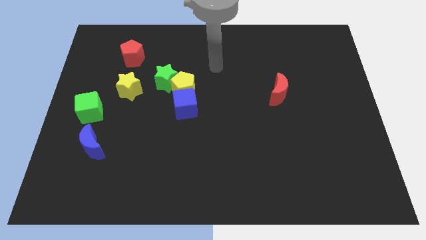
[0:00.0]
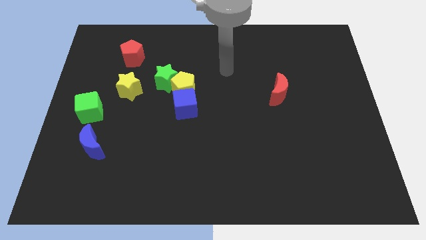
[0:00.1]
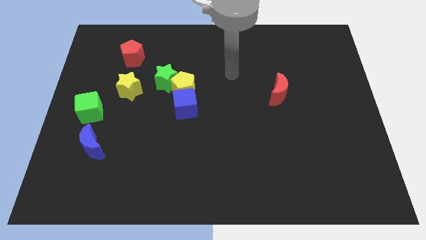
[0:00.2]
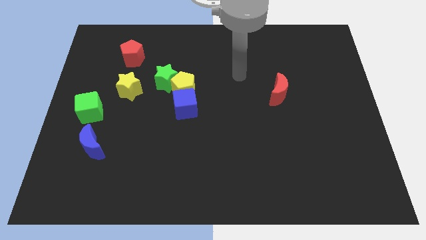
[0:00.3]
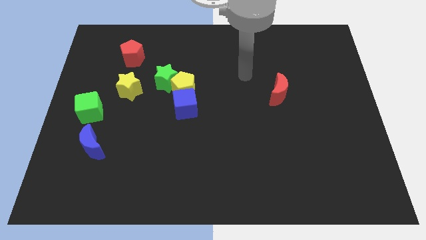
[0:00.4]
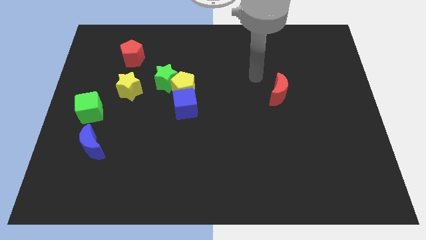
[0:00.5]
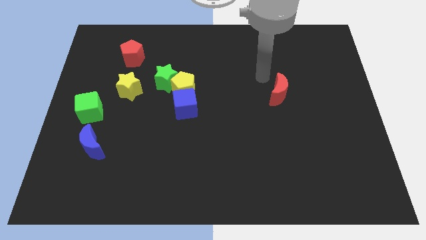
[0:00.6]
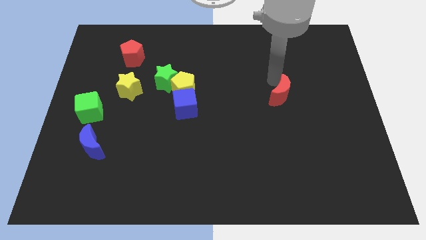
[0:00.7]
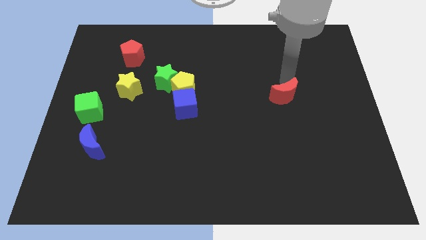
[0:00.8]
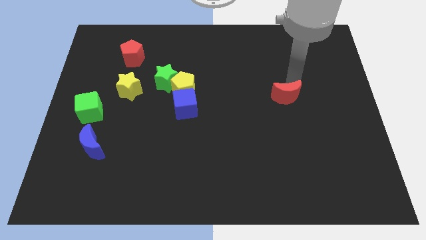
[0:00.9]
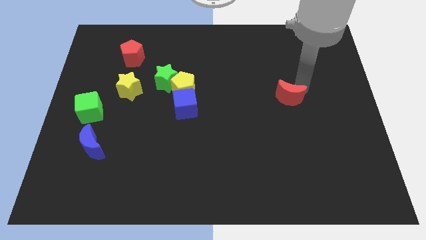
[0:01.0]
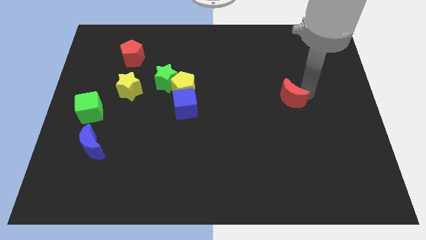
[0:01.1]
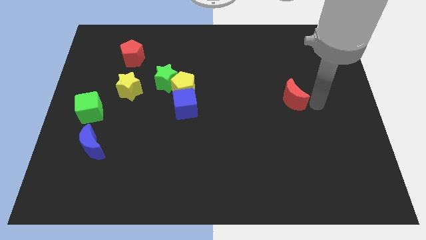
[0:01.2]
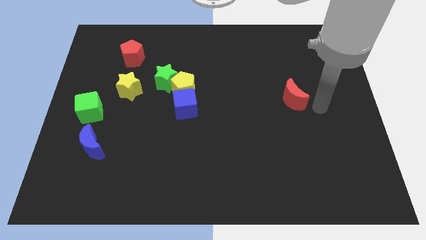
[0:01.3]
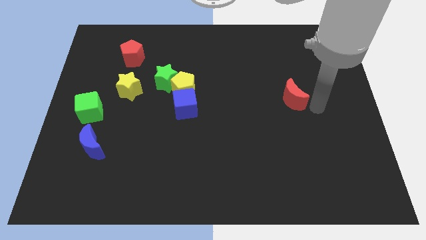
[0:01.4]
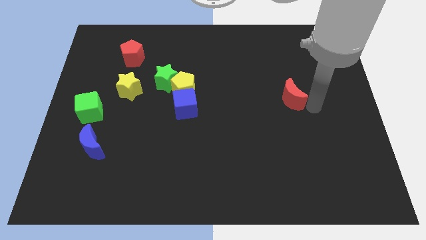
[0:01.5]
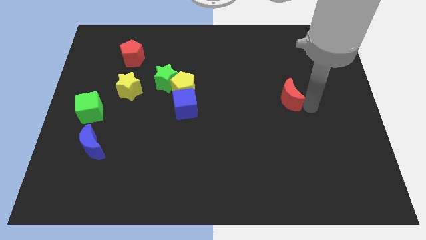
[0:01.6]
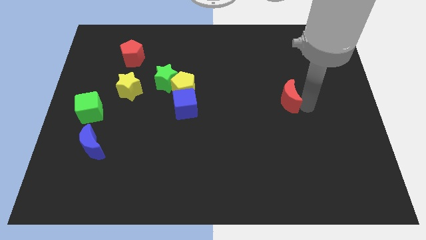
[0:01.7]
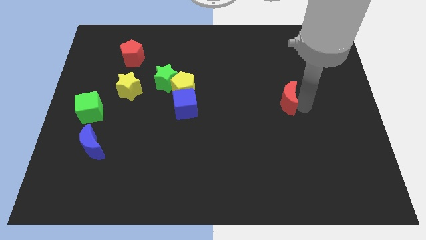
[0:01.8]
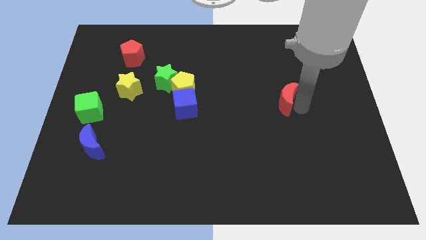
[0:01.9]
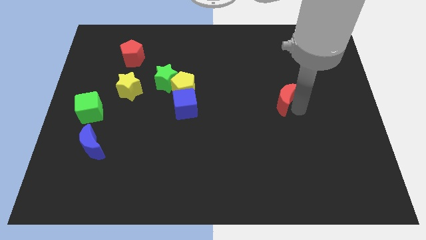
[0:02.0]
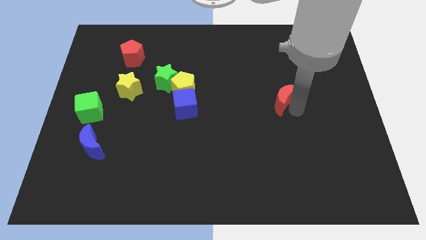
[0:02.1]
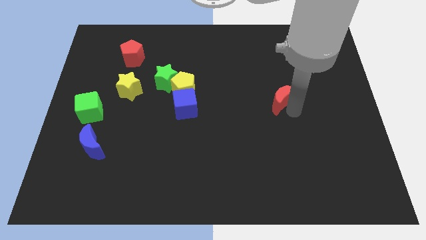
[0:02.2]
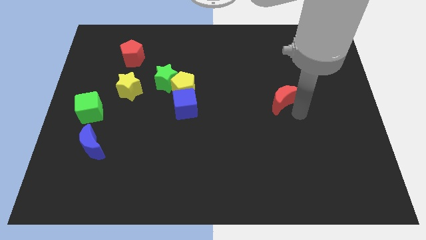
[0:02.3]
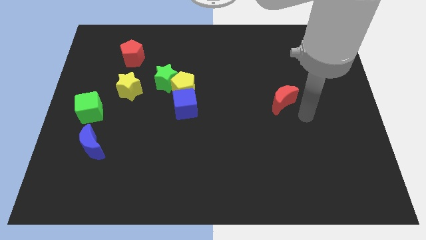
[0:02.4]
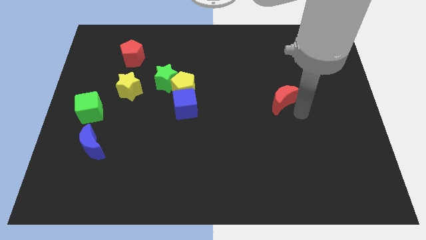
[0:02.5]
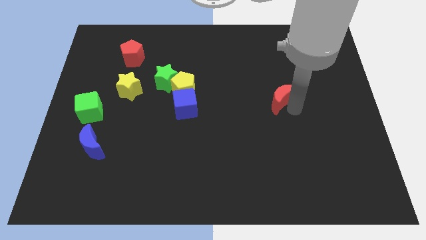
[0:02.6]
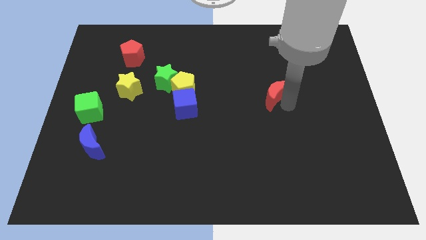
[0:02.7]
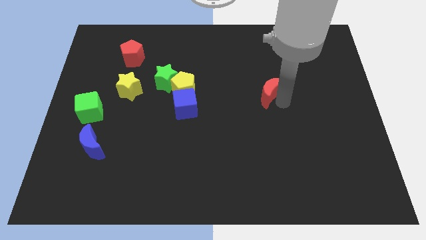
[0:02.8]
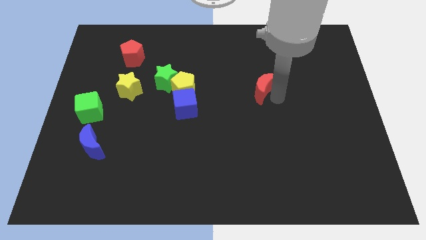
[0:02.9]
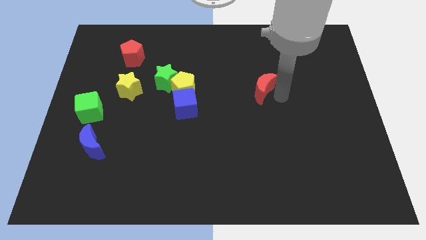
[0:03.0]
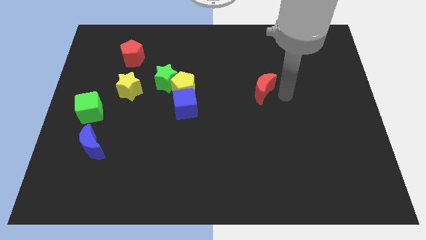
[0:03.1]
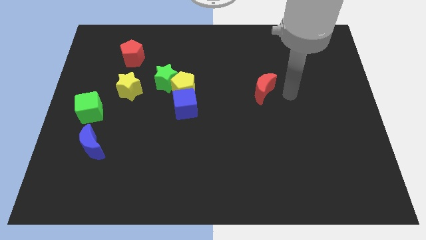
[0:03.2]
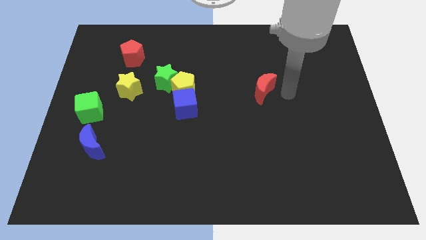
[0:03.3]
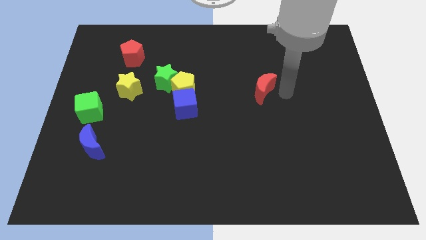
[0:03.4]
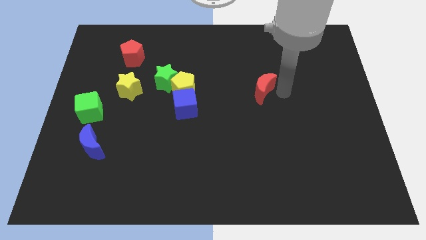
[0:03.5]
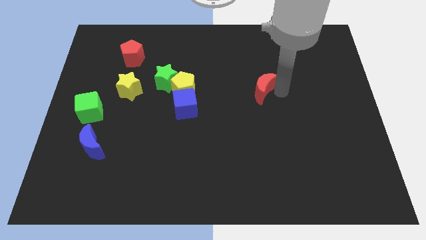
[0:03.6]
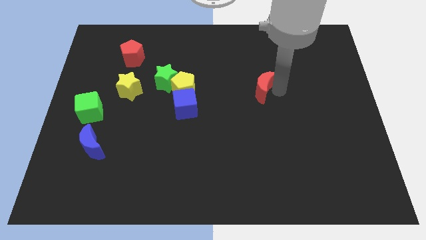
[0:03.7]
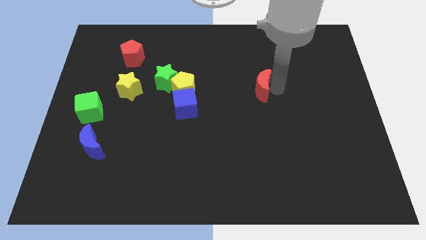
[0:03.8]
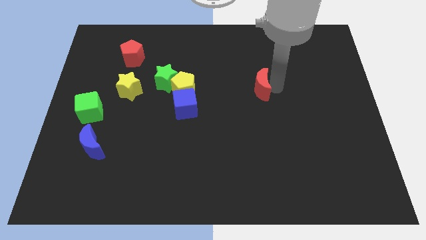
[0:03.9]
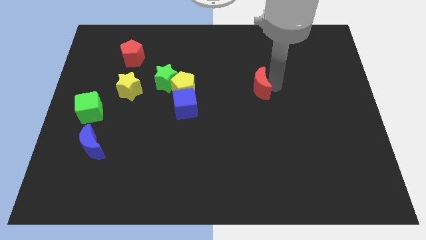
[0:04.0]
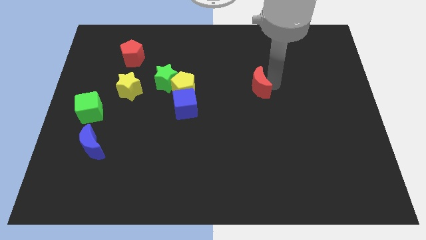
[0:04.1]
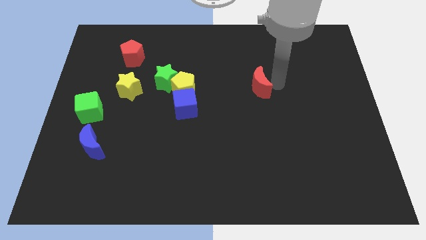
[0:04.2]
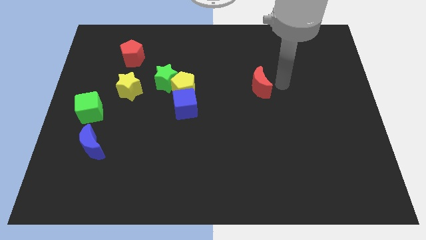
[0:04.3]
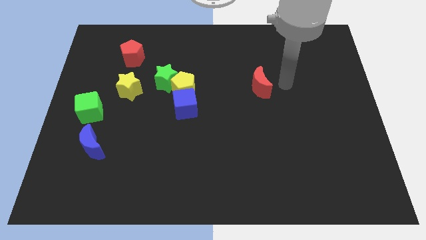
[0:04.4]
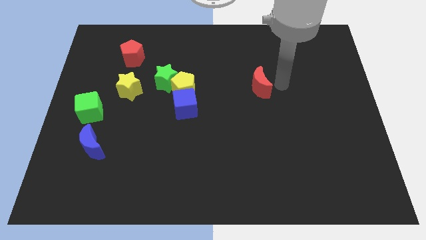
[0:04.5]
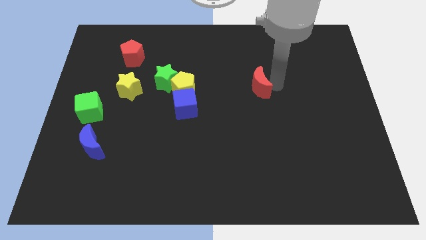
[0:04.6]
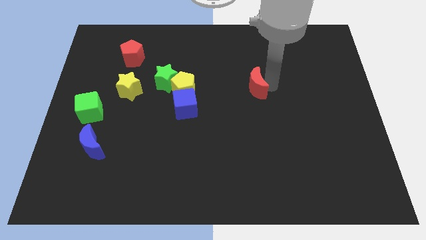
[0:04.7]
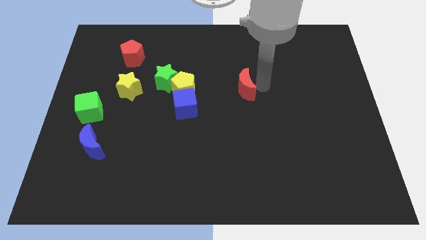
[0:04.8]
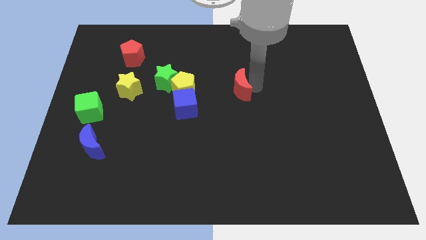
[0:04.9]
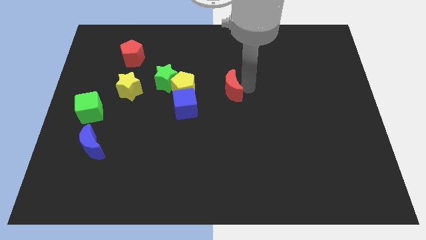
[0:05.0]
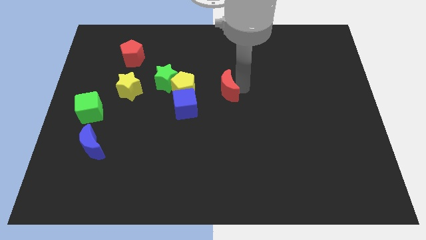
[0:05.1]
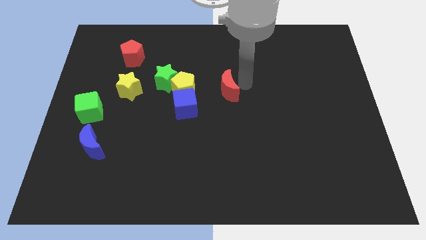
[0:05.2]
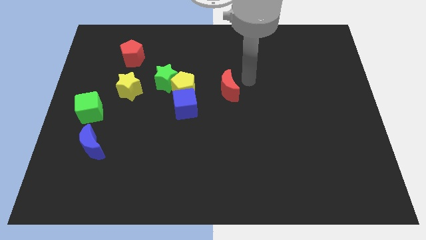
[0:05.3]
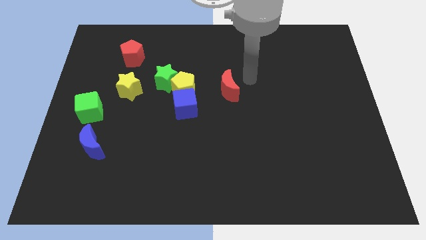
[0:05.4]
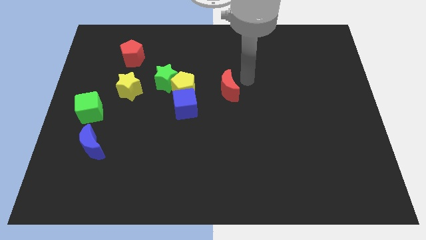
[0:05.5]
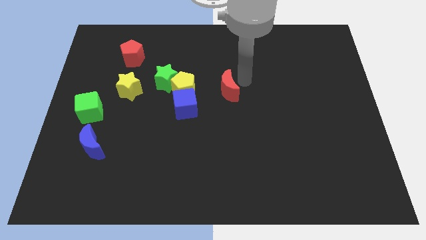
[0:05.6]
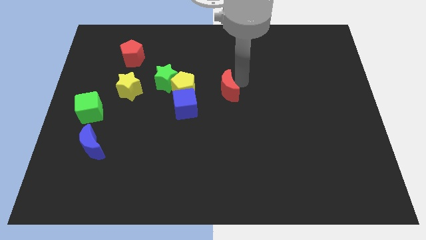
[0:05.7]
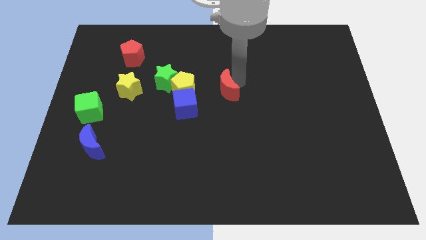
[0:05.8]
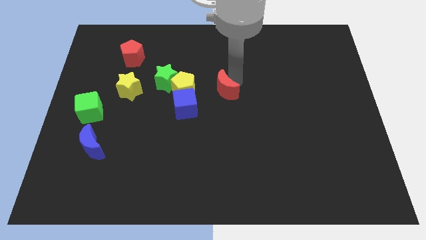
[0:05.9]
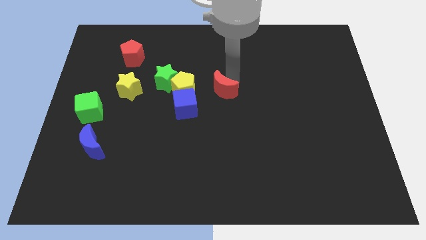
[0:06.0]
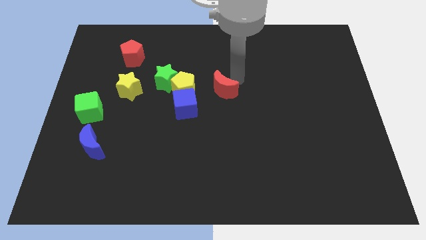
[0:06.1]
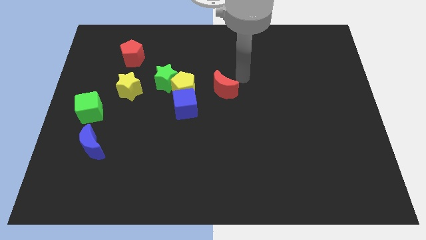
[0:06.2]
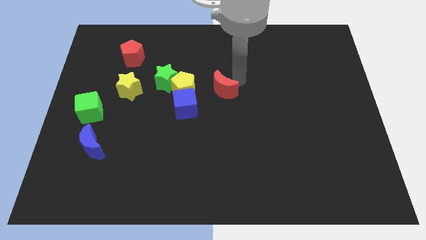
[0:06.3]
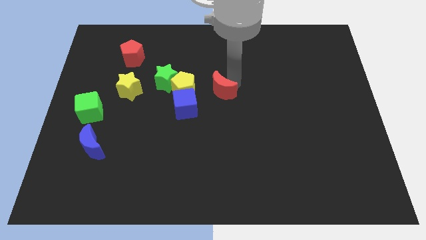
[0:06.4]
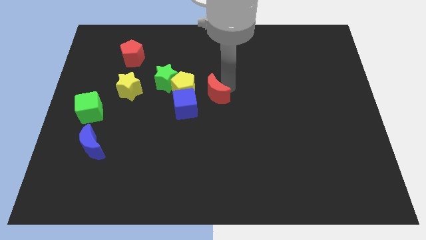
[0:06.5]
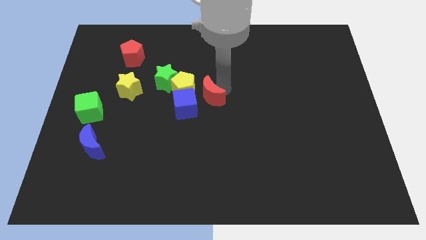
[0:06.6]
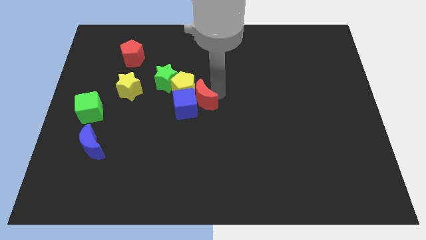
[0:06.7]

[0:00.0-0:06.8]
move the red moon next to the blue cube
